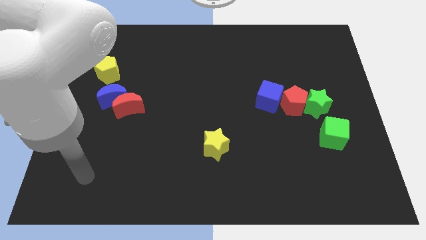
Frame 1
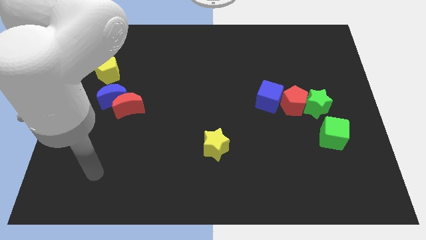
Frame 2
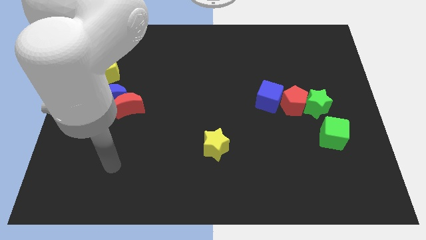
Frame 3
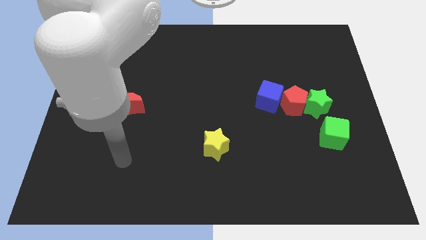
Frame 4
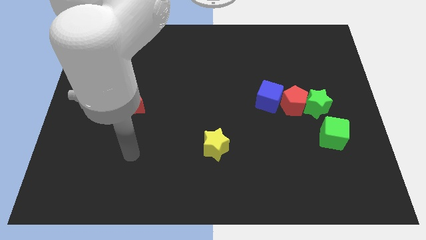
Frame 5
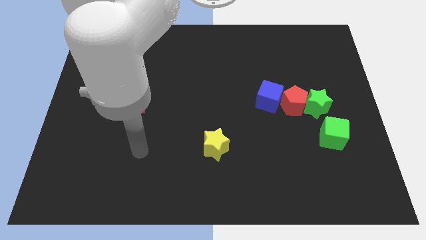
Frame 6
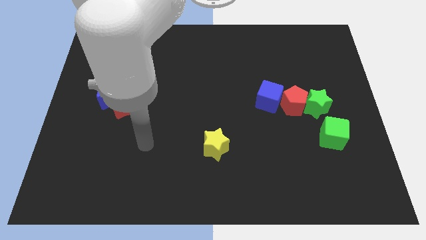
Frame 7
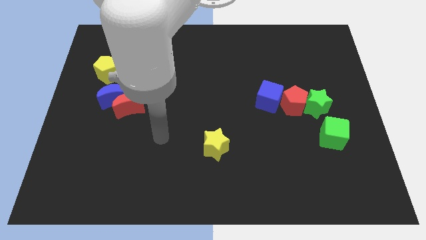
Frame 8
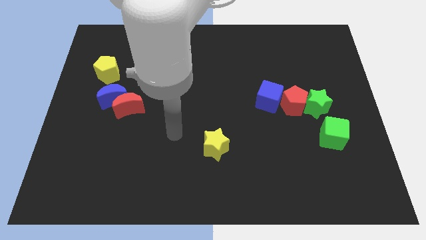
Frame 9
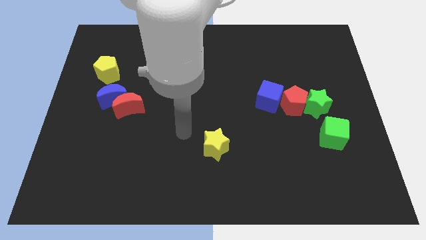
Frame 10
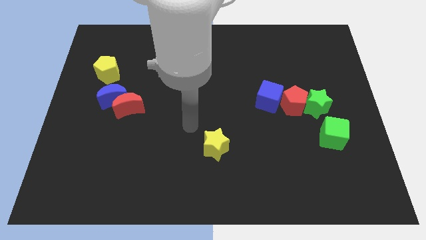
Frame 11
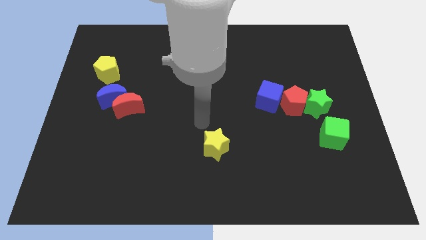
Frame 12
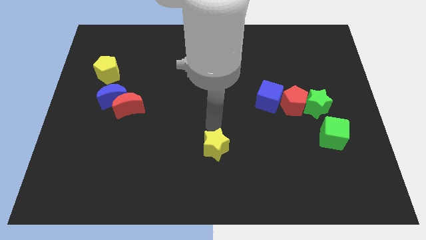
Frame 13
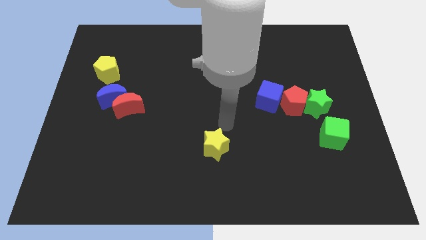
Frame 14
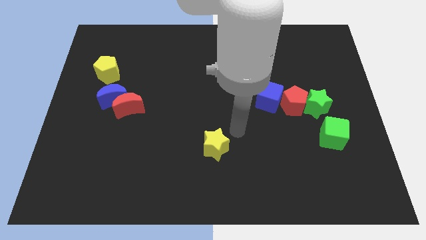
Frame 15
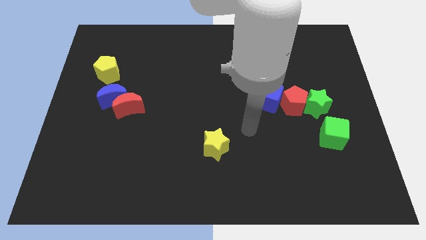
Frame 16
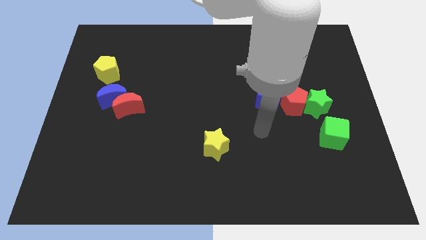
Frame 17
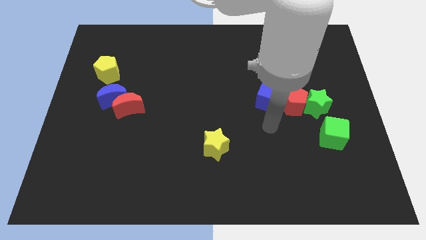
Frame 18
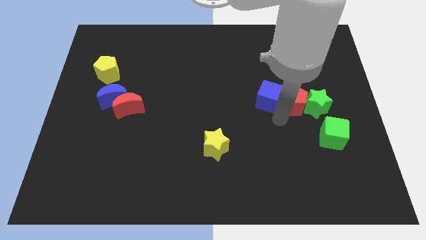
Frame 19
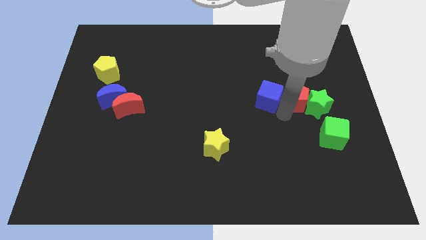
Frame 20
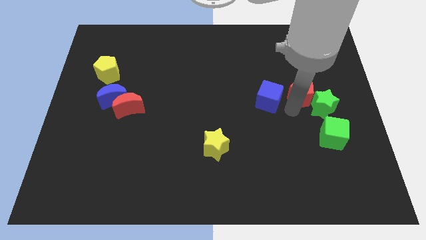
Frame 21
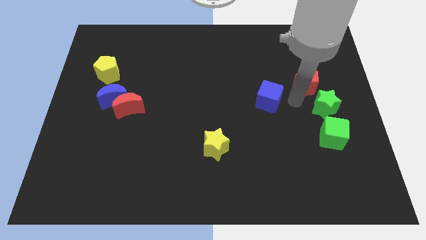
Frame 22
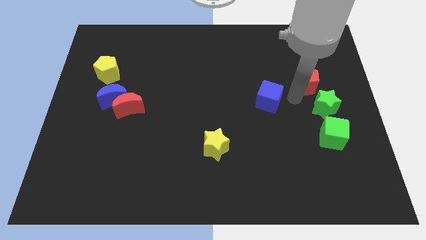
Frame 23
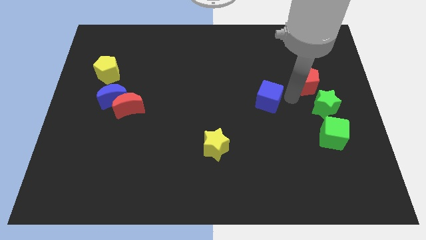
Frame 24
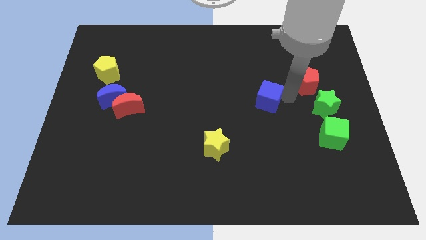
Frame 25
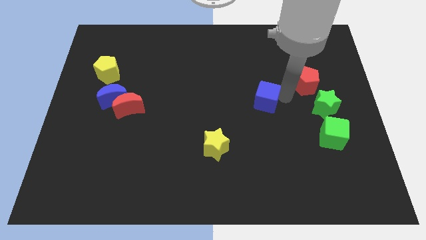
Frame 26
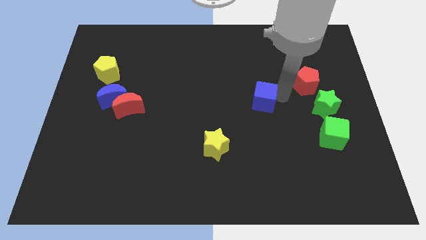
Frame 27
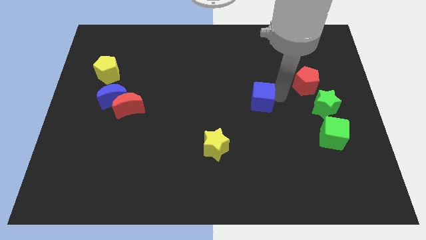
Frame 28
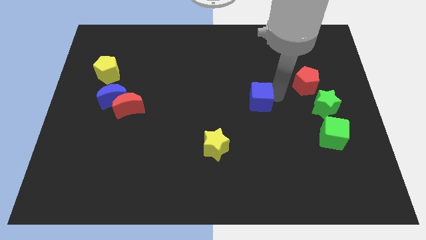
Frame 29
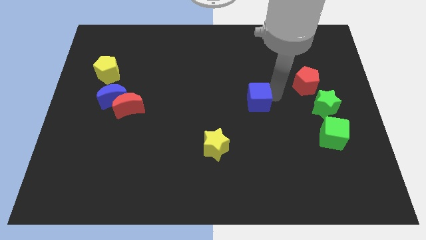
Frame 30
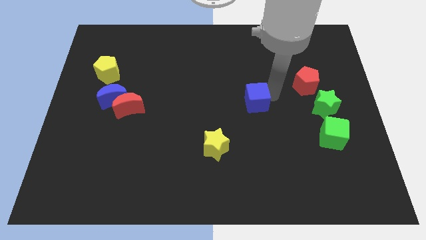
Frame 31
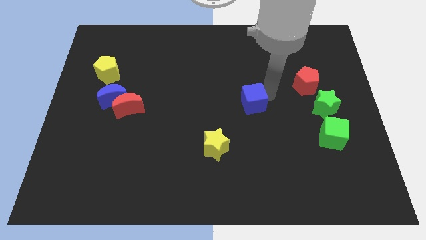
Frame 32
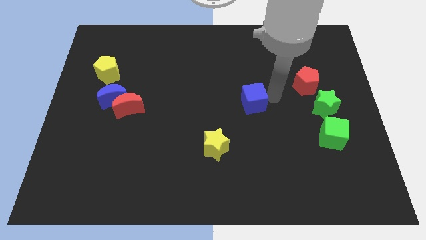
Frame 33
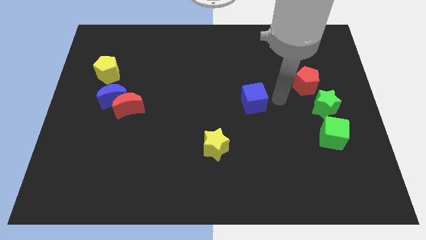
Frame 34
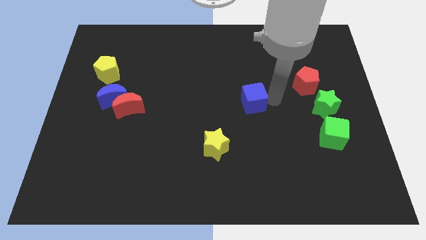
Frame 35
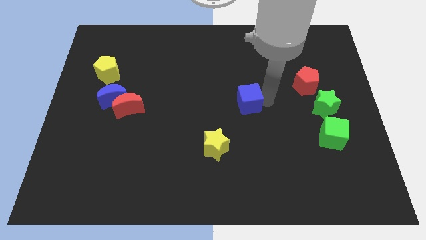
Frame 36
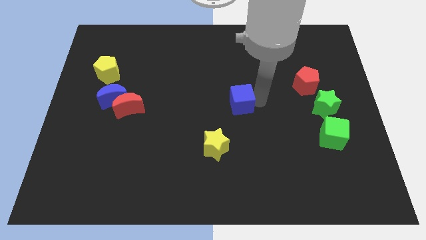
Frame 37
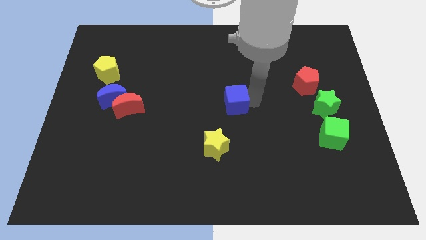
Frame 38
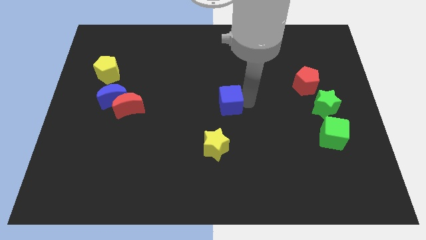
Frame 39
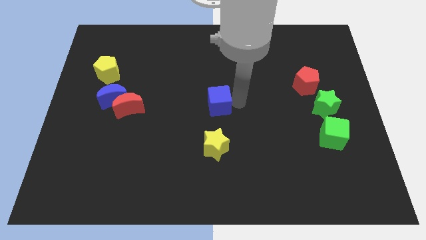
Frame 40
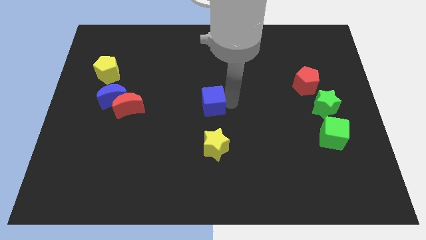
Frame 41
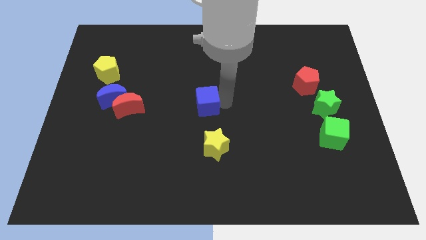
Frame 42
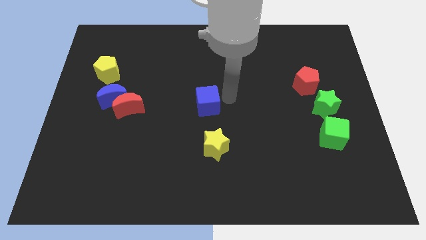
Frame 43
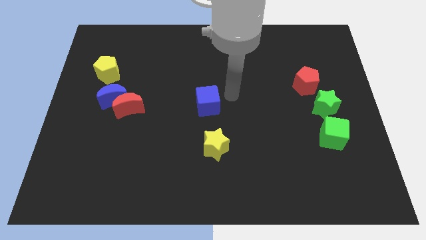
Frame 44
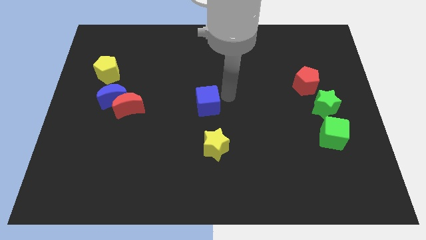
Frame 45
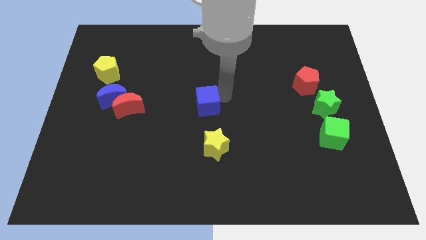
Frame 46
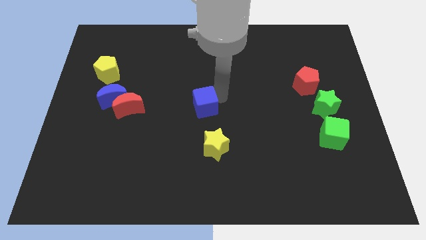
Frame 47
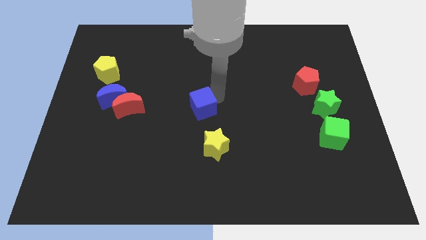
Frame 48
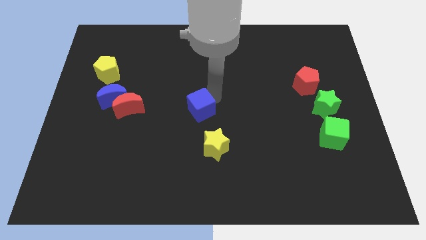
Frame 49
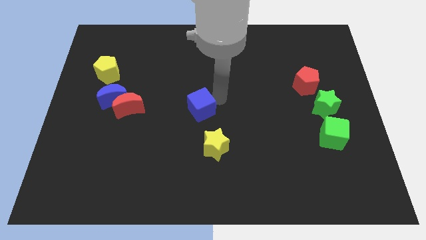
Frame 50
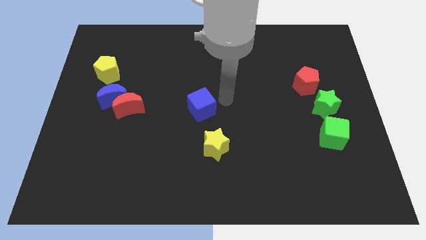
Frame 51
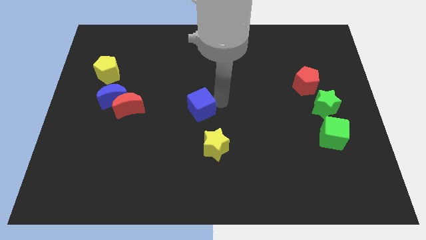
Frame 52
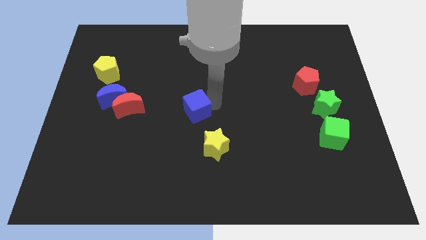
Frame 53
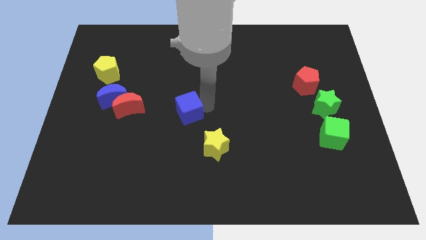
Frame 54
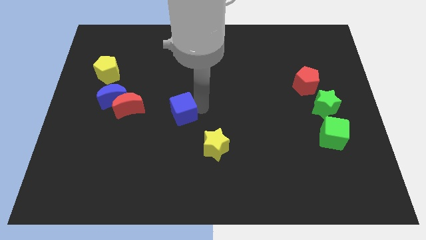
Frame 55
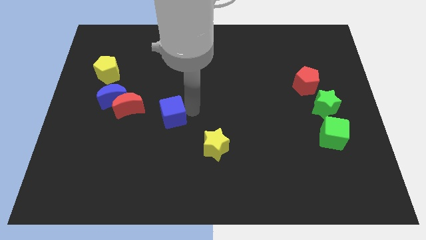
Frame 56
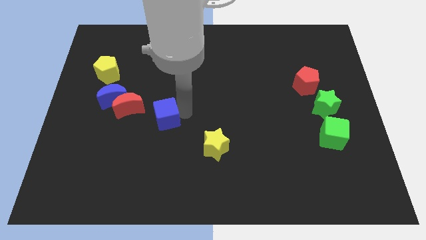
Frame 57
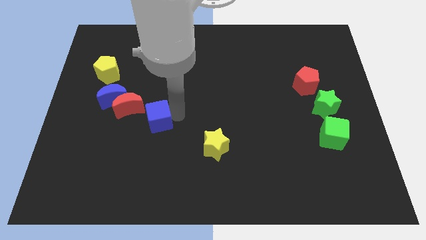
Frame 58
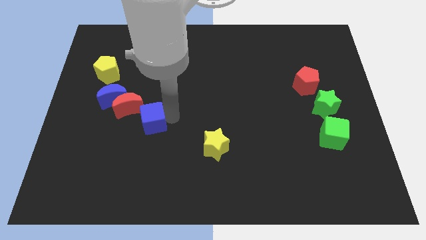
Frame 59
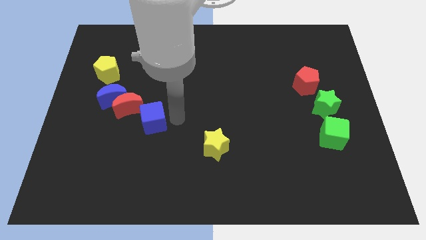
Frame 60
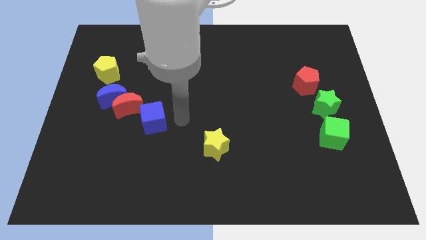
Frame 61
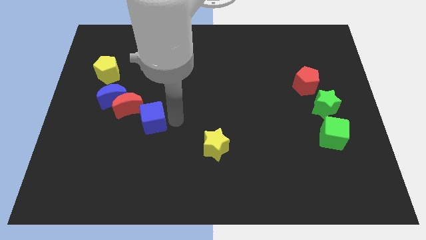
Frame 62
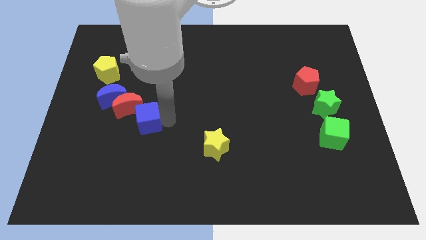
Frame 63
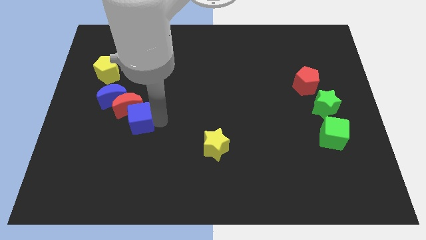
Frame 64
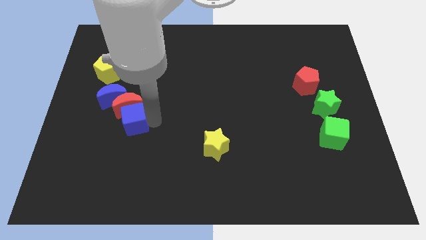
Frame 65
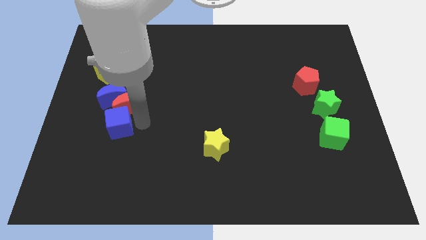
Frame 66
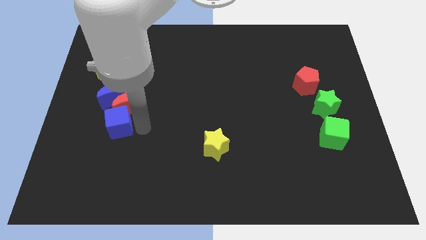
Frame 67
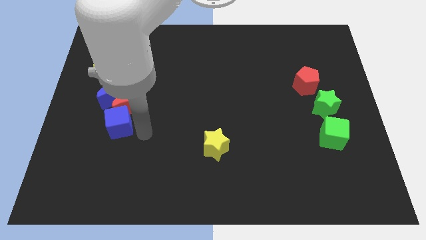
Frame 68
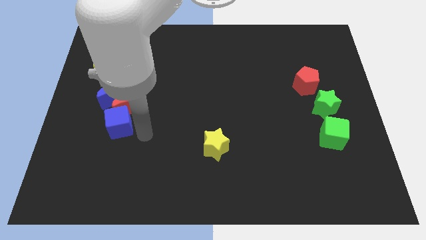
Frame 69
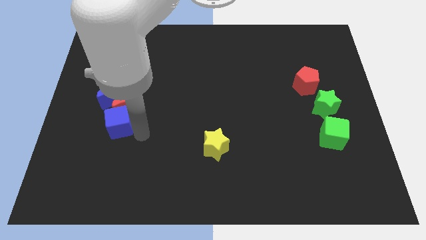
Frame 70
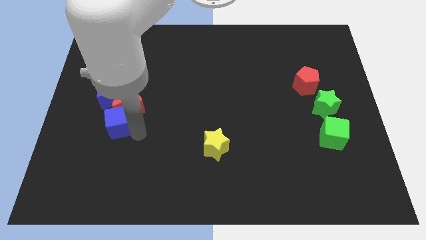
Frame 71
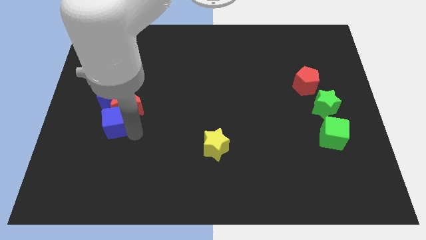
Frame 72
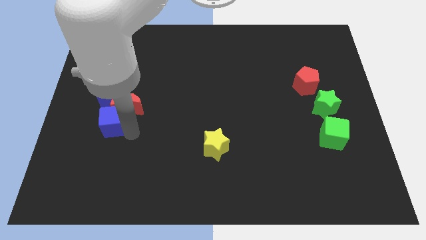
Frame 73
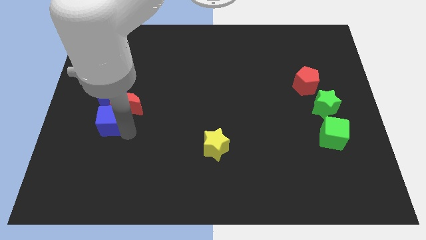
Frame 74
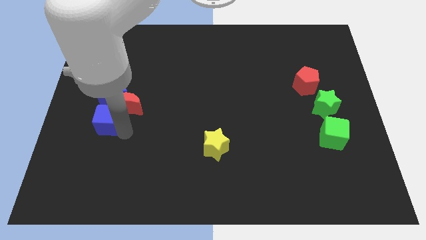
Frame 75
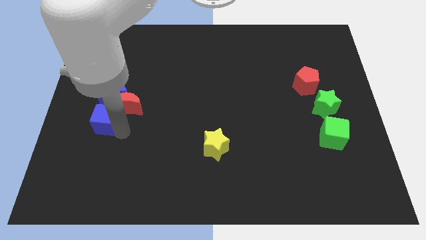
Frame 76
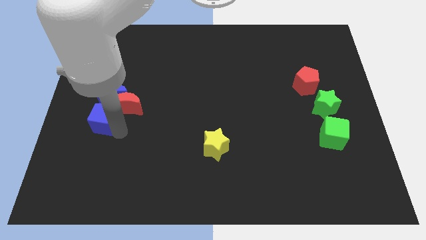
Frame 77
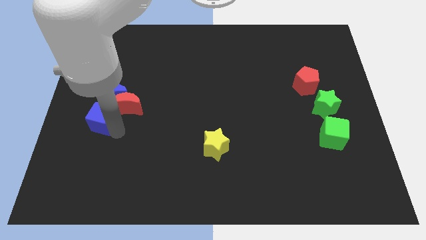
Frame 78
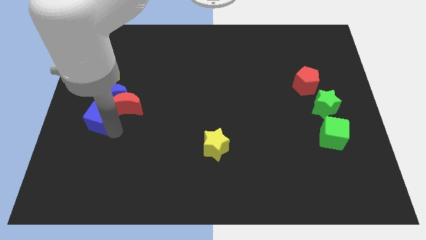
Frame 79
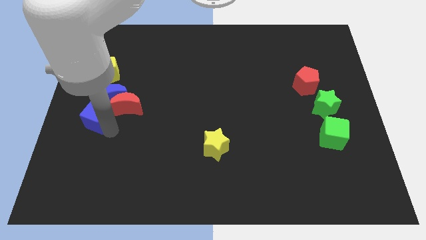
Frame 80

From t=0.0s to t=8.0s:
move the blue cube to the left side
